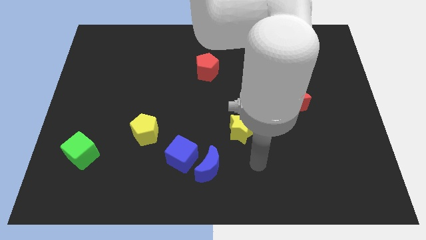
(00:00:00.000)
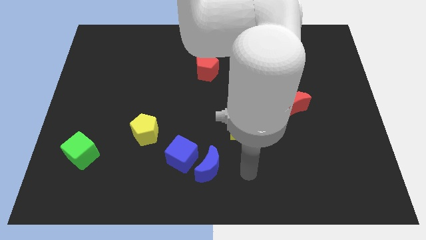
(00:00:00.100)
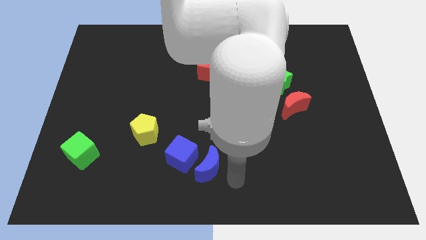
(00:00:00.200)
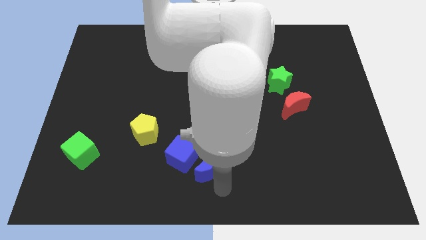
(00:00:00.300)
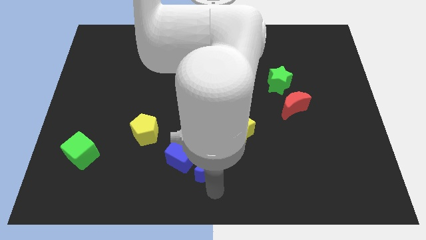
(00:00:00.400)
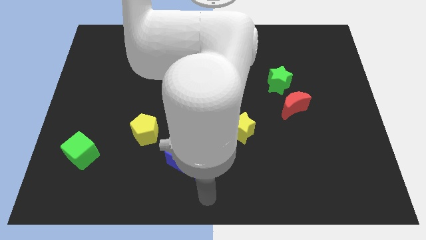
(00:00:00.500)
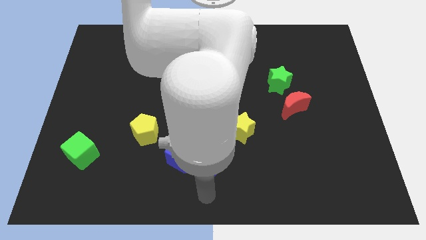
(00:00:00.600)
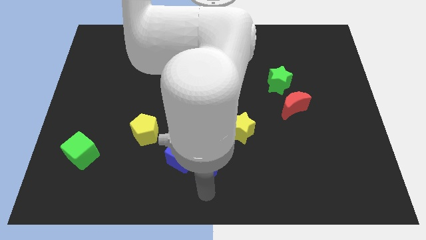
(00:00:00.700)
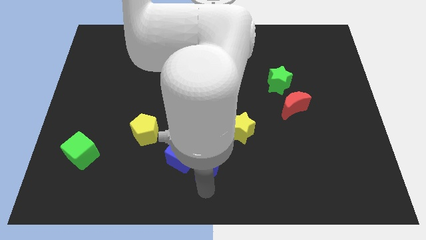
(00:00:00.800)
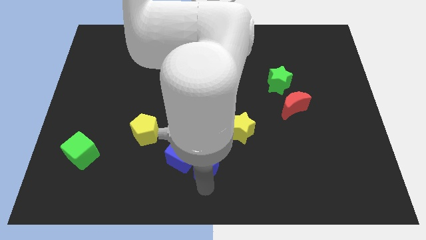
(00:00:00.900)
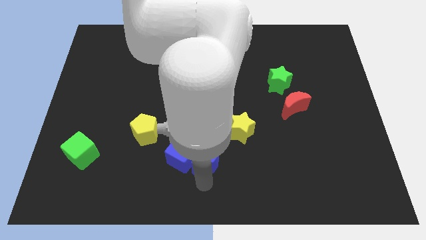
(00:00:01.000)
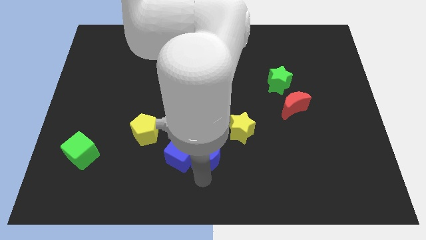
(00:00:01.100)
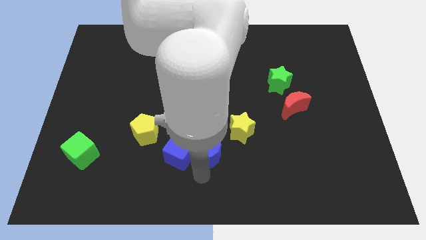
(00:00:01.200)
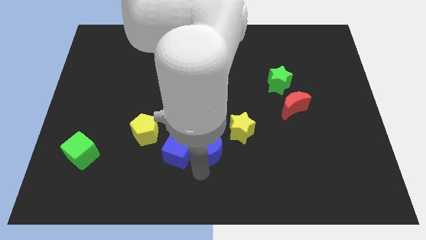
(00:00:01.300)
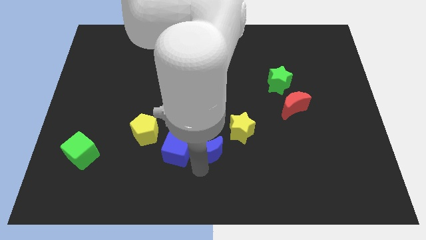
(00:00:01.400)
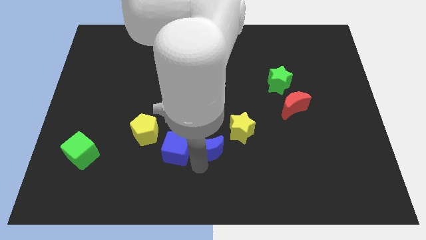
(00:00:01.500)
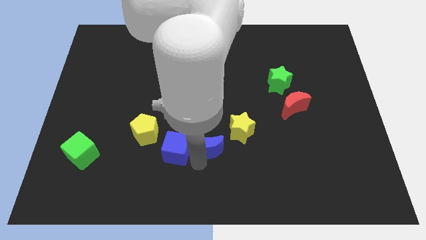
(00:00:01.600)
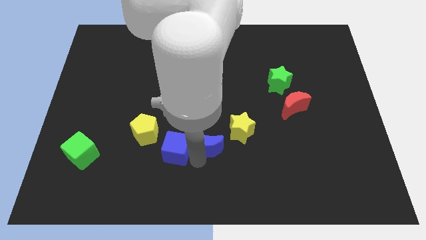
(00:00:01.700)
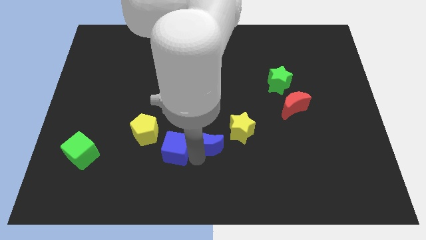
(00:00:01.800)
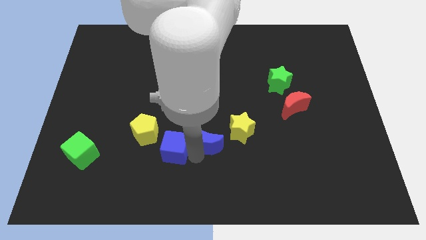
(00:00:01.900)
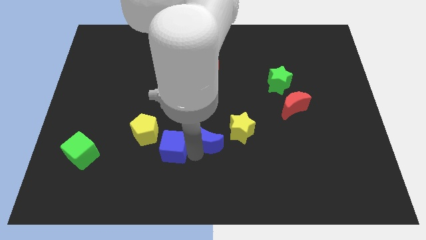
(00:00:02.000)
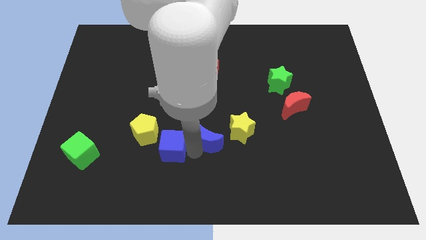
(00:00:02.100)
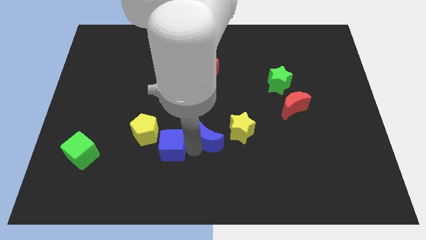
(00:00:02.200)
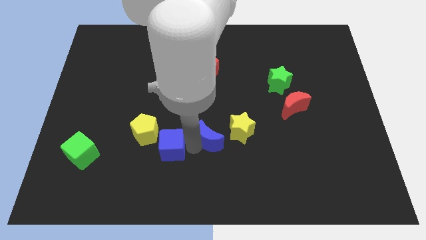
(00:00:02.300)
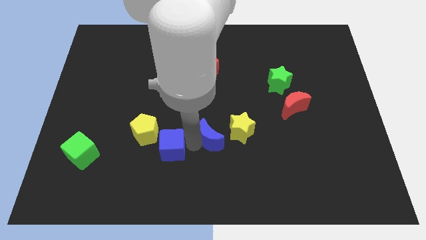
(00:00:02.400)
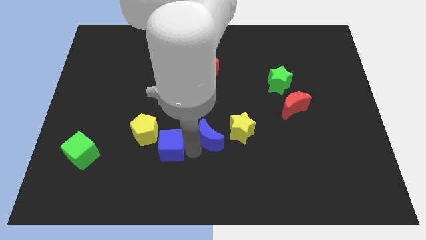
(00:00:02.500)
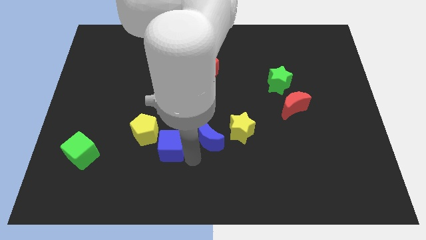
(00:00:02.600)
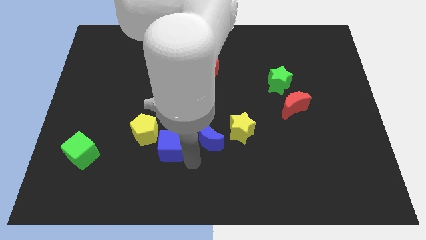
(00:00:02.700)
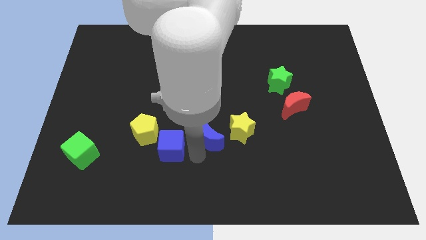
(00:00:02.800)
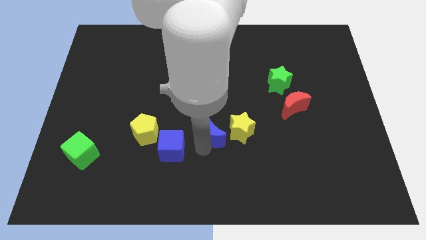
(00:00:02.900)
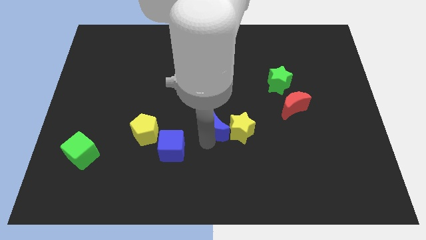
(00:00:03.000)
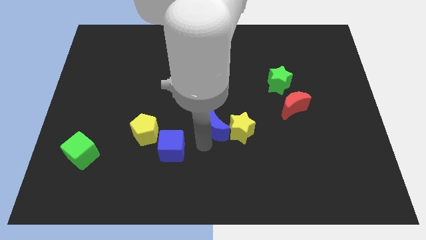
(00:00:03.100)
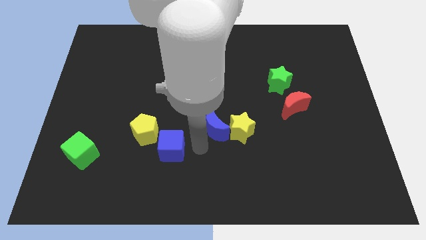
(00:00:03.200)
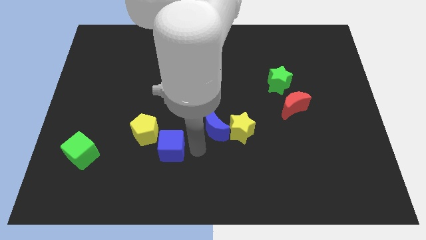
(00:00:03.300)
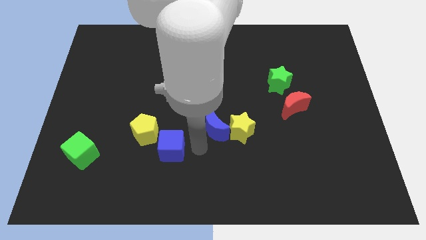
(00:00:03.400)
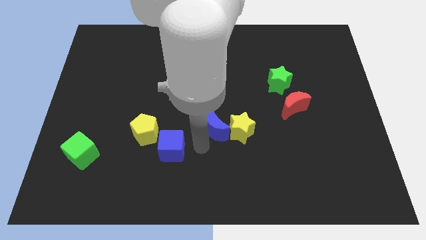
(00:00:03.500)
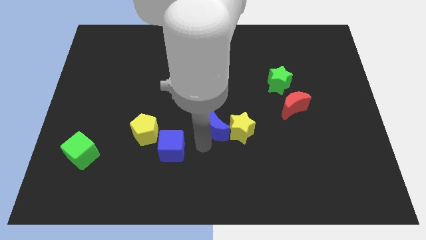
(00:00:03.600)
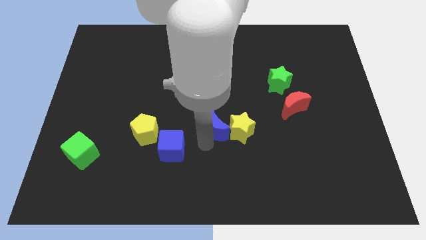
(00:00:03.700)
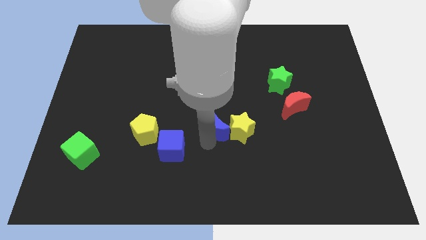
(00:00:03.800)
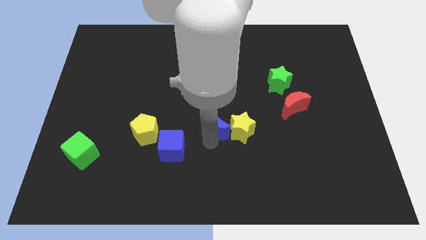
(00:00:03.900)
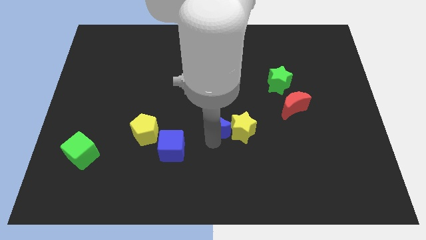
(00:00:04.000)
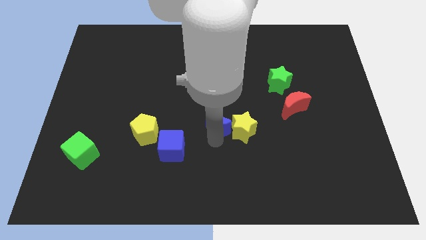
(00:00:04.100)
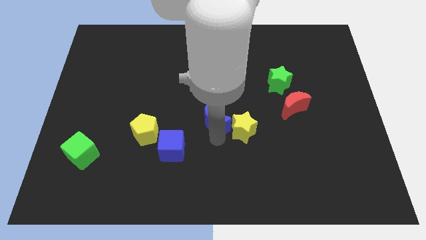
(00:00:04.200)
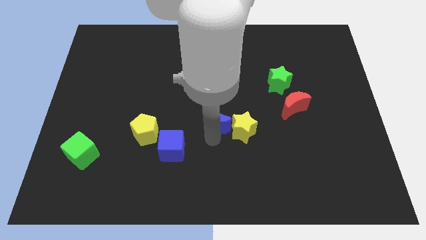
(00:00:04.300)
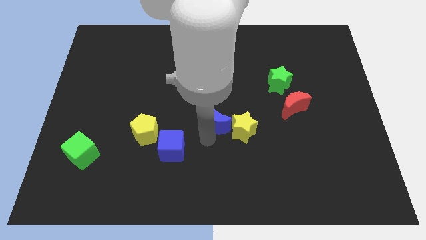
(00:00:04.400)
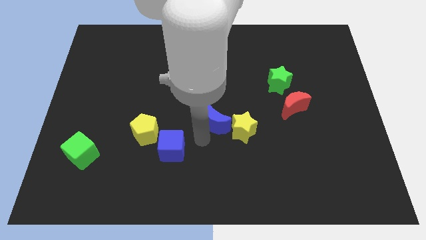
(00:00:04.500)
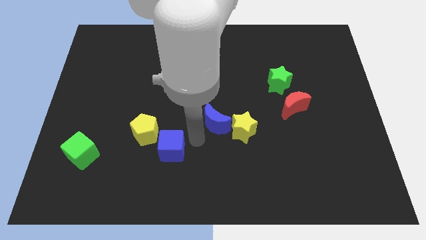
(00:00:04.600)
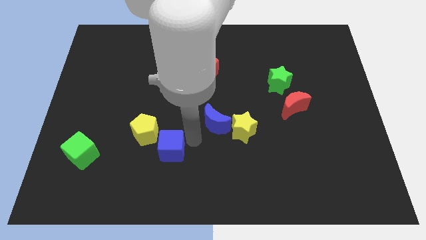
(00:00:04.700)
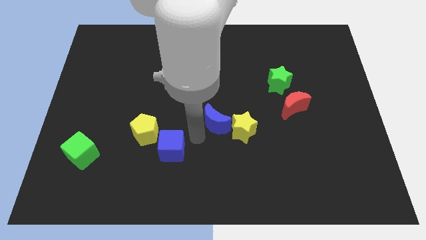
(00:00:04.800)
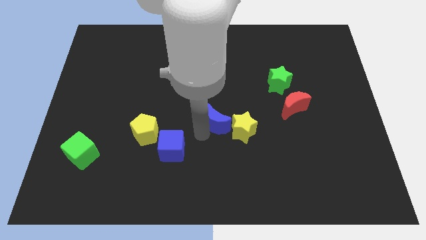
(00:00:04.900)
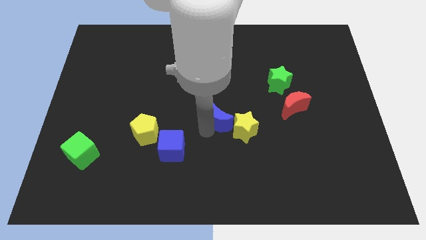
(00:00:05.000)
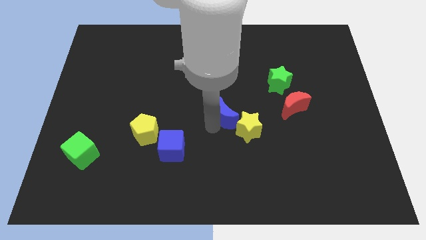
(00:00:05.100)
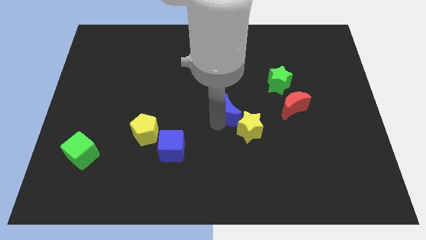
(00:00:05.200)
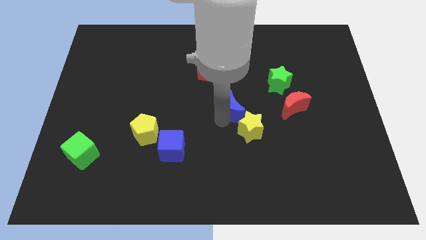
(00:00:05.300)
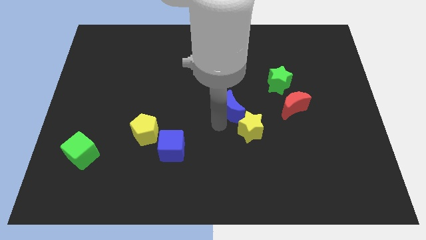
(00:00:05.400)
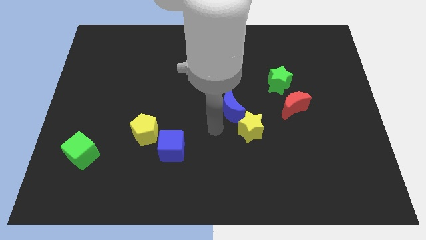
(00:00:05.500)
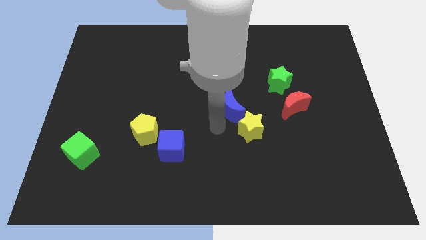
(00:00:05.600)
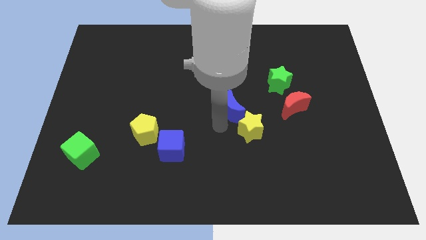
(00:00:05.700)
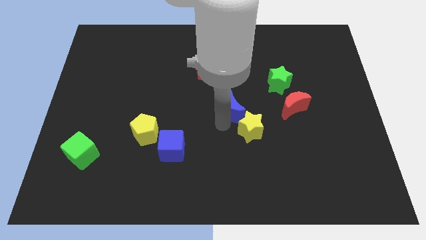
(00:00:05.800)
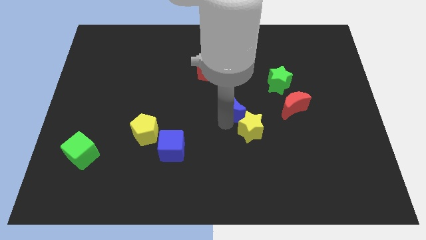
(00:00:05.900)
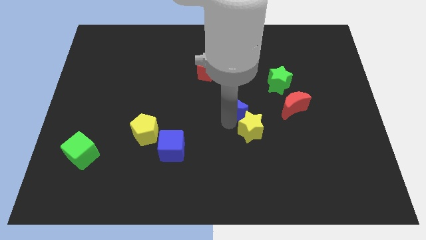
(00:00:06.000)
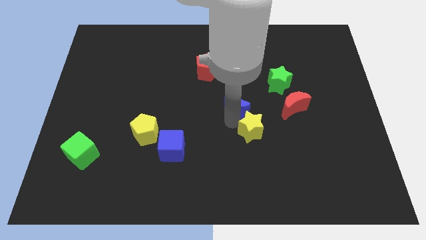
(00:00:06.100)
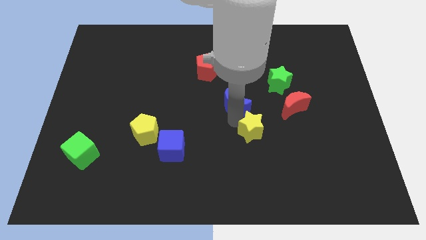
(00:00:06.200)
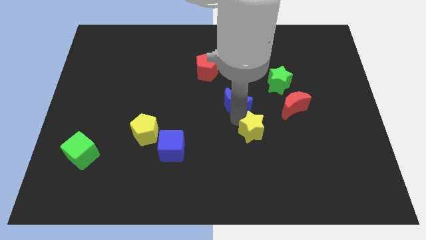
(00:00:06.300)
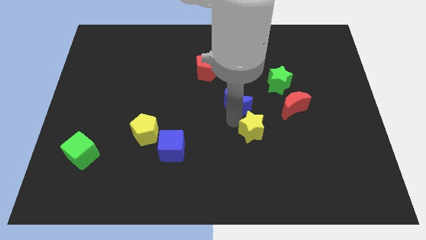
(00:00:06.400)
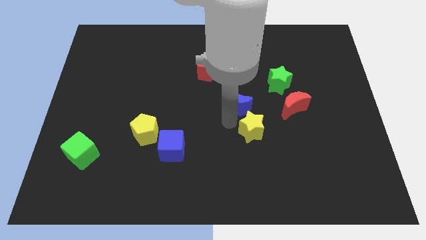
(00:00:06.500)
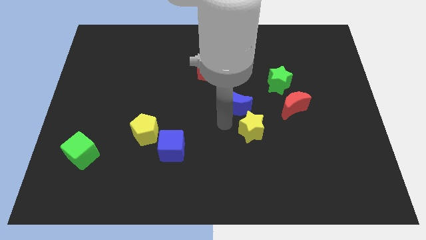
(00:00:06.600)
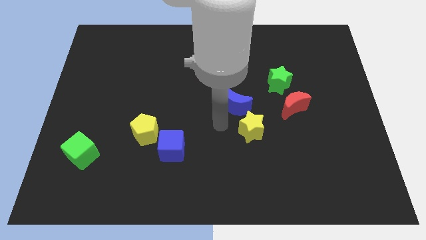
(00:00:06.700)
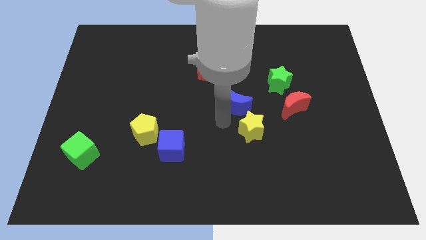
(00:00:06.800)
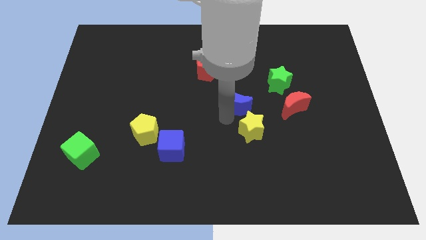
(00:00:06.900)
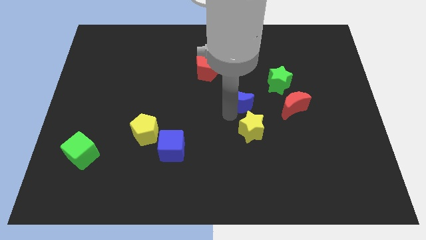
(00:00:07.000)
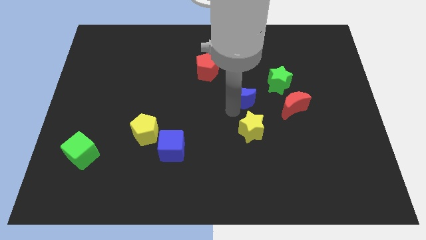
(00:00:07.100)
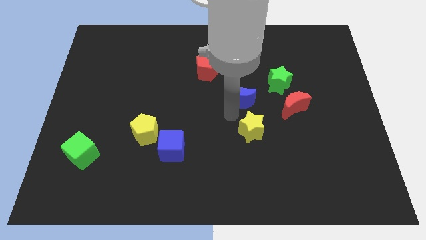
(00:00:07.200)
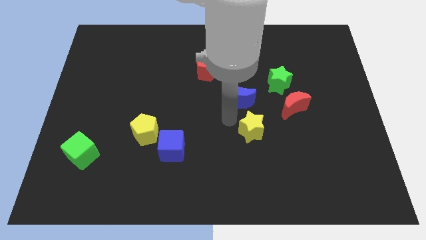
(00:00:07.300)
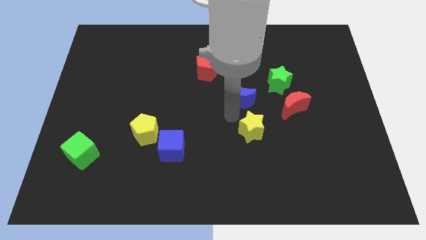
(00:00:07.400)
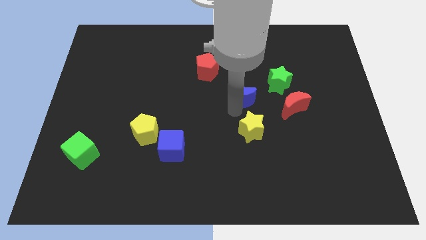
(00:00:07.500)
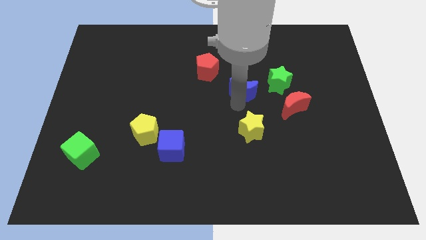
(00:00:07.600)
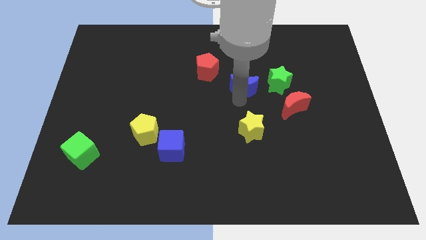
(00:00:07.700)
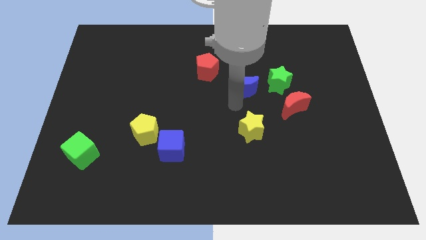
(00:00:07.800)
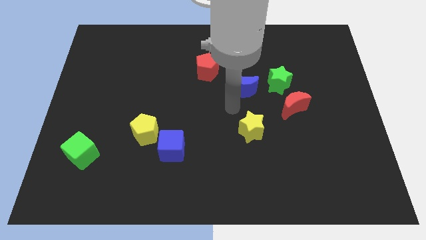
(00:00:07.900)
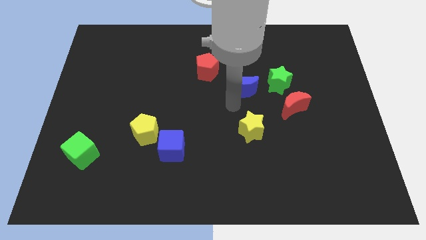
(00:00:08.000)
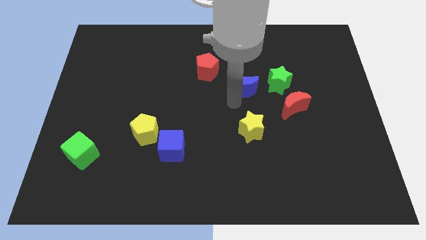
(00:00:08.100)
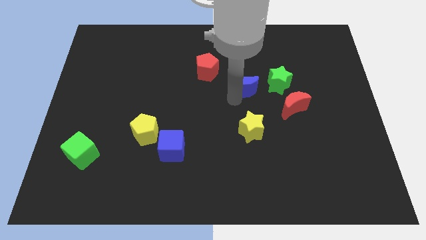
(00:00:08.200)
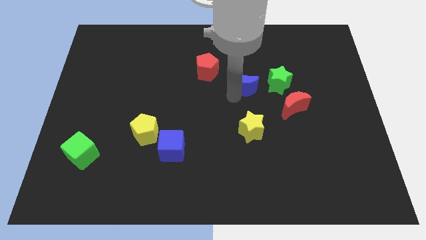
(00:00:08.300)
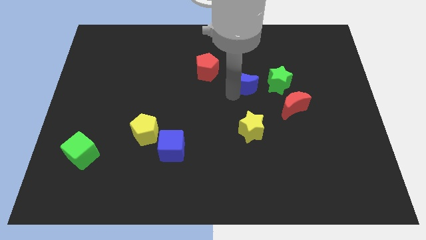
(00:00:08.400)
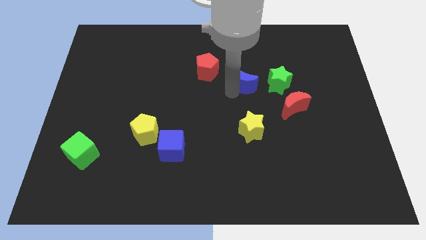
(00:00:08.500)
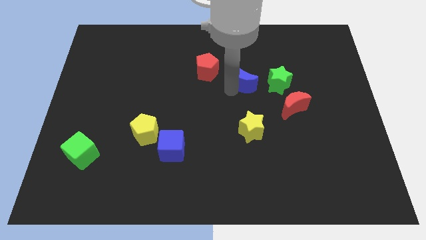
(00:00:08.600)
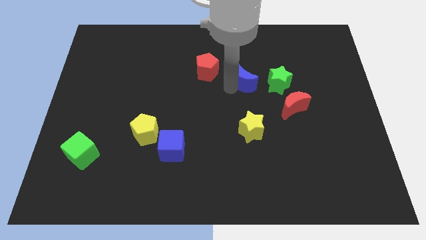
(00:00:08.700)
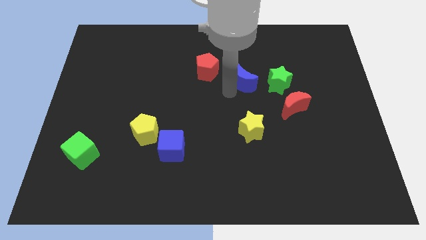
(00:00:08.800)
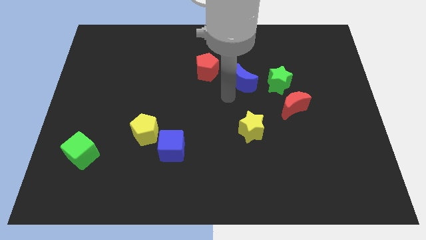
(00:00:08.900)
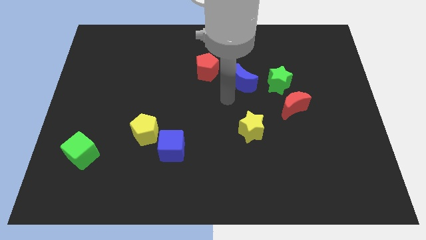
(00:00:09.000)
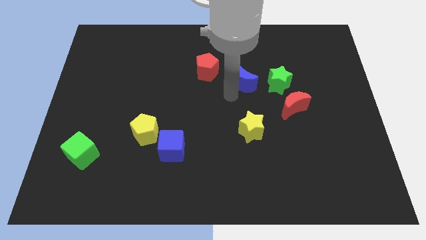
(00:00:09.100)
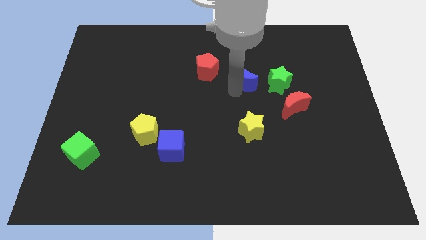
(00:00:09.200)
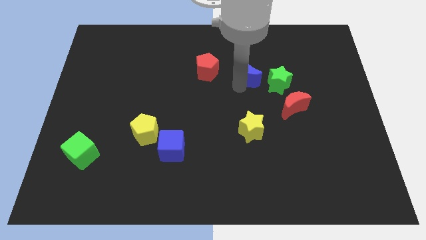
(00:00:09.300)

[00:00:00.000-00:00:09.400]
move the blue moon diagonally up and to the left of the green star
